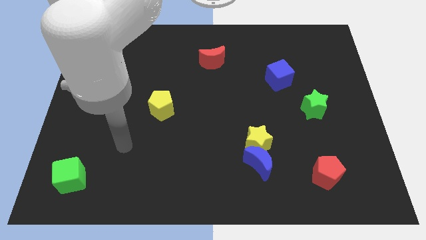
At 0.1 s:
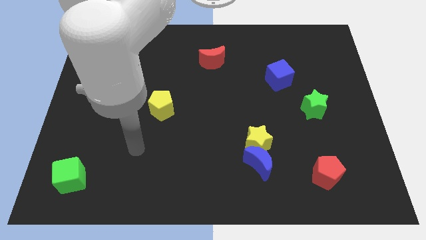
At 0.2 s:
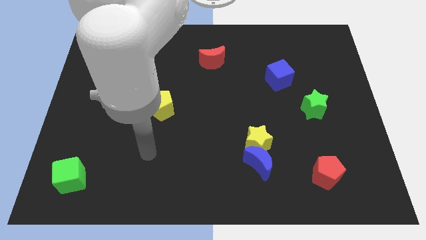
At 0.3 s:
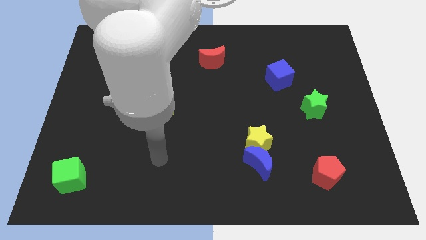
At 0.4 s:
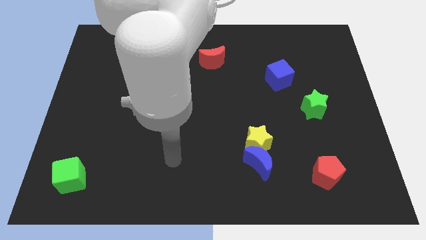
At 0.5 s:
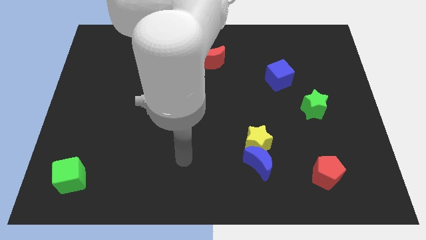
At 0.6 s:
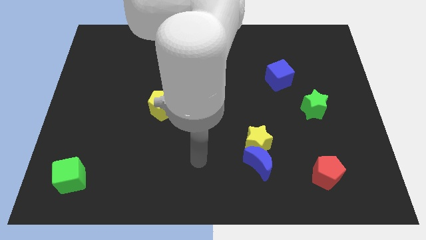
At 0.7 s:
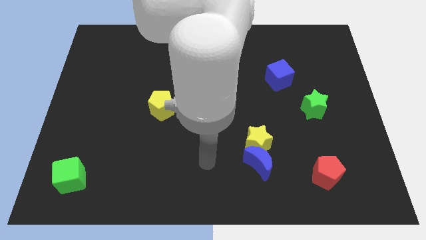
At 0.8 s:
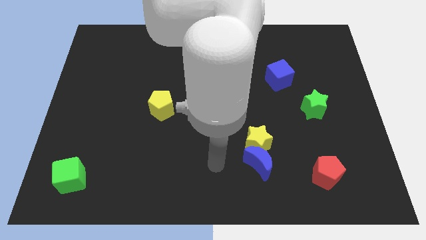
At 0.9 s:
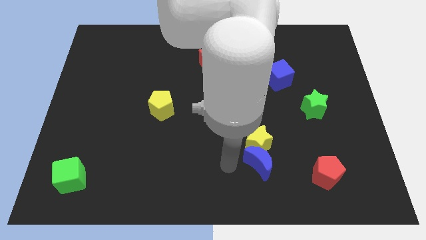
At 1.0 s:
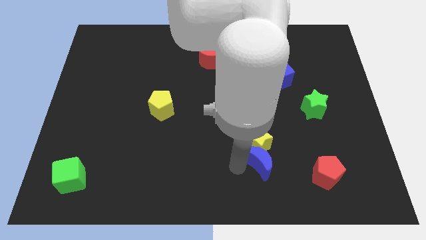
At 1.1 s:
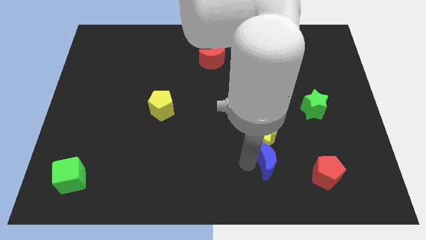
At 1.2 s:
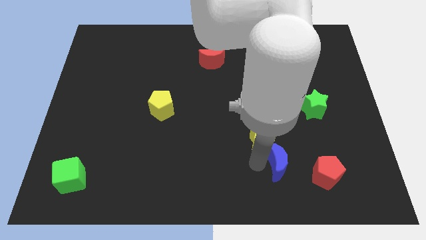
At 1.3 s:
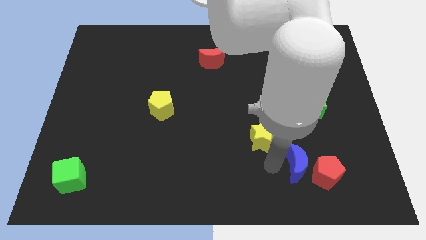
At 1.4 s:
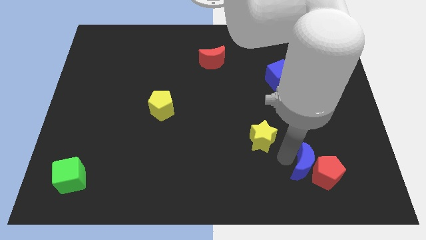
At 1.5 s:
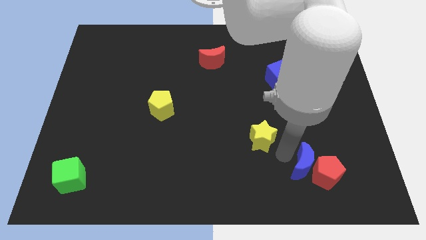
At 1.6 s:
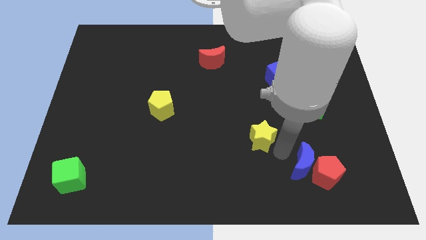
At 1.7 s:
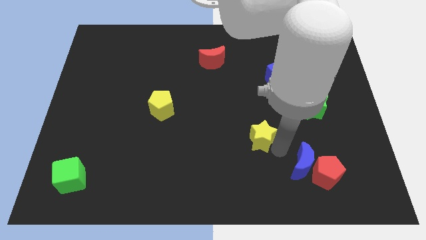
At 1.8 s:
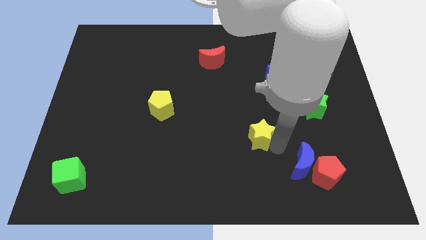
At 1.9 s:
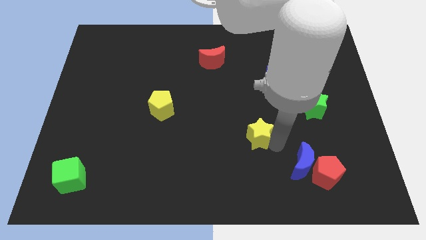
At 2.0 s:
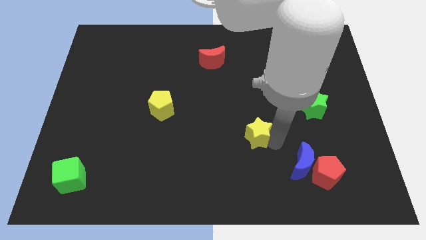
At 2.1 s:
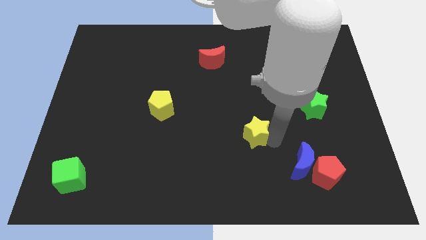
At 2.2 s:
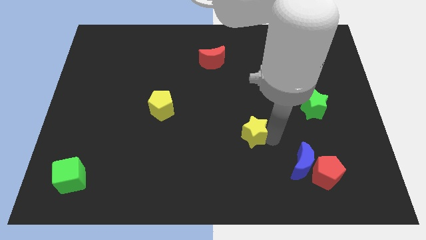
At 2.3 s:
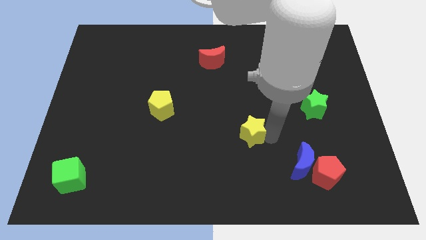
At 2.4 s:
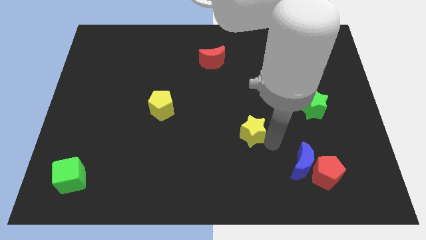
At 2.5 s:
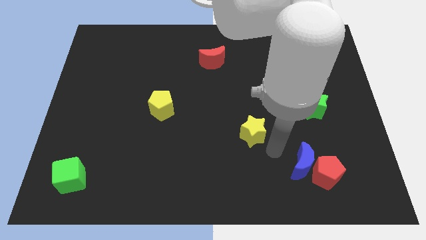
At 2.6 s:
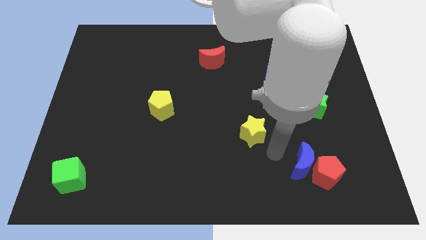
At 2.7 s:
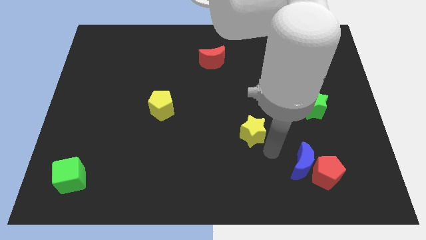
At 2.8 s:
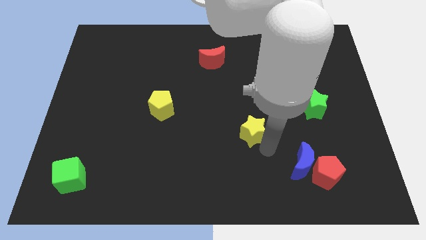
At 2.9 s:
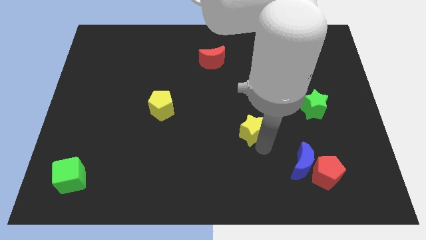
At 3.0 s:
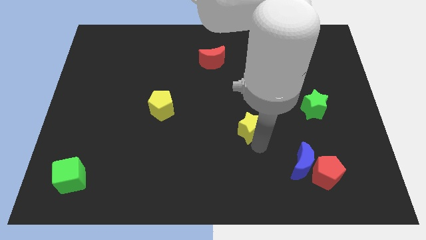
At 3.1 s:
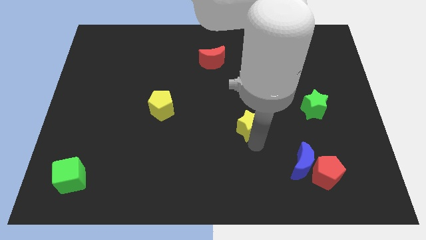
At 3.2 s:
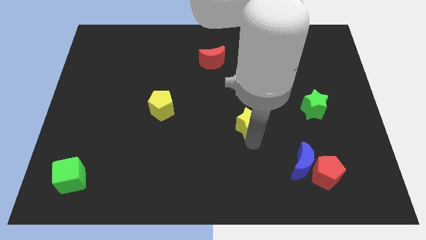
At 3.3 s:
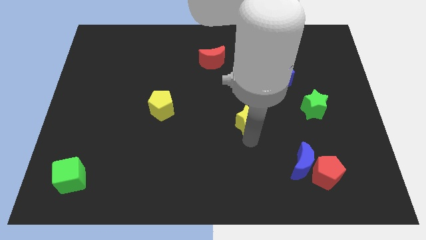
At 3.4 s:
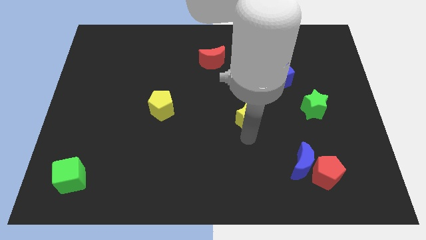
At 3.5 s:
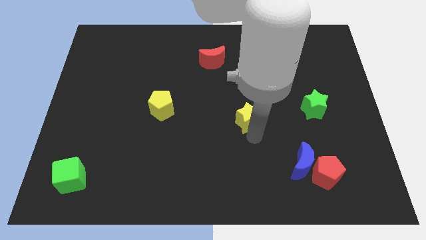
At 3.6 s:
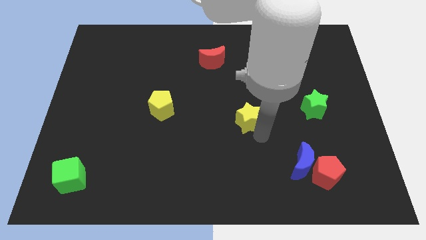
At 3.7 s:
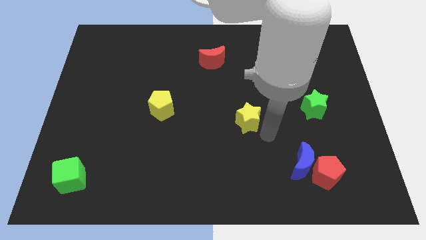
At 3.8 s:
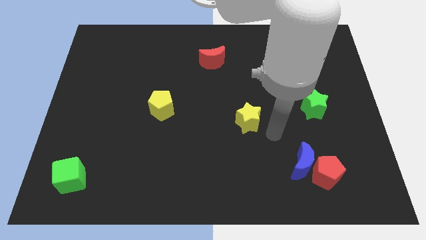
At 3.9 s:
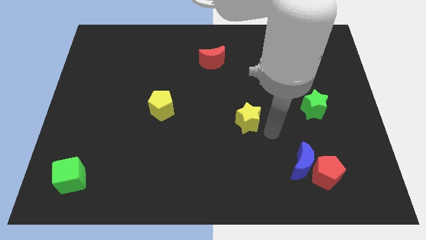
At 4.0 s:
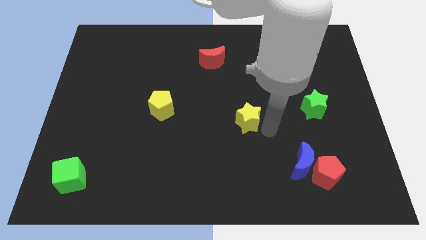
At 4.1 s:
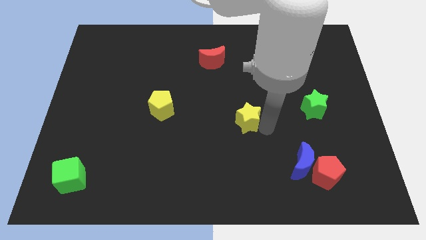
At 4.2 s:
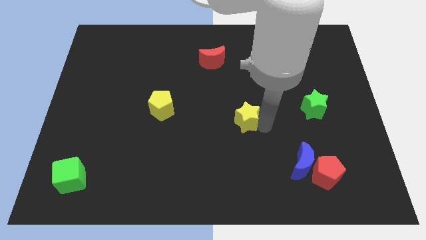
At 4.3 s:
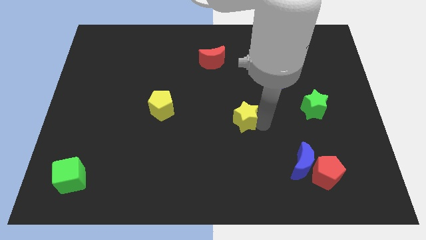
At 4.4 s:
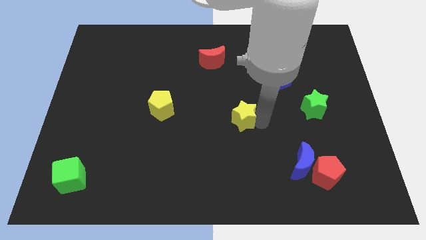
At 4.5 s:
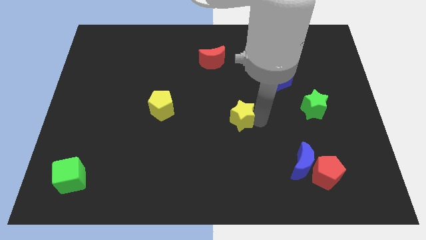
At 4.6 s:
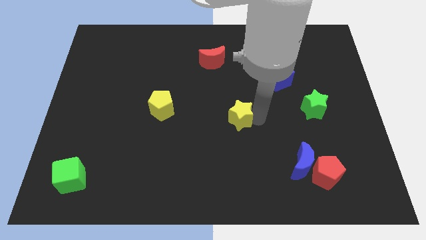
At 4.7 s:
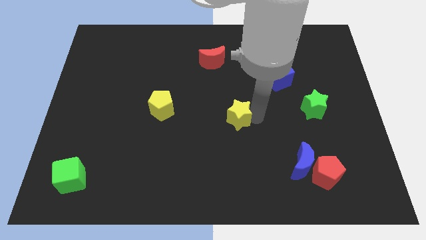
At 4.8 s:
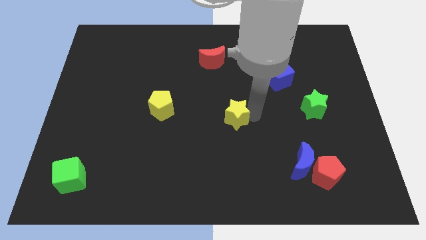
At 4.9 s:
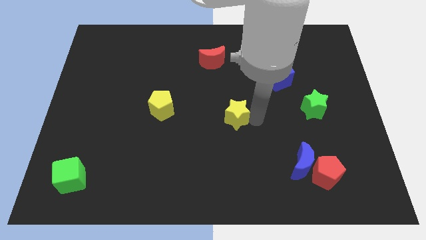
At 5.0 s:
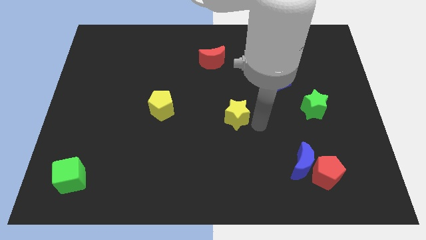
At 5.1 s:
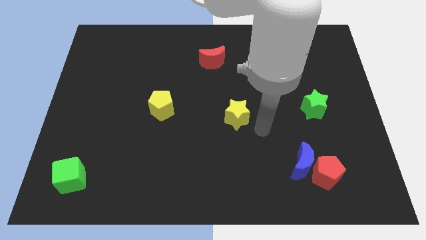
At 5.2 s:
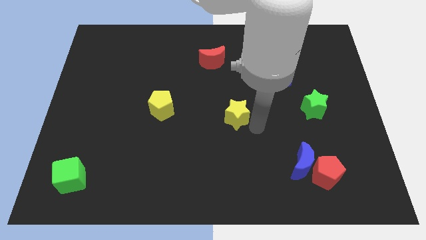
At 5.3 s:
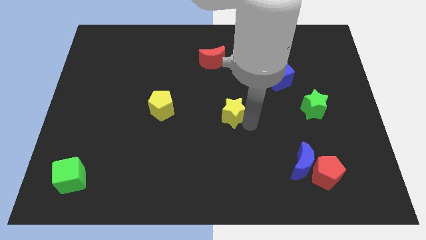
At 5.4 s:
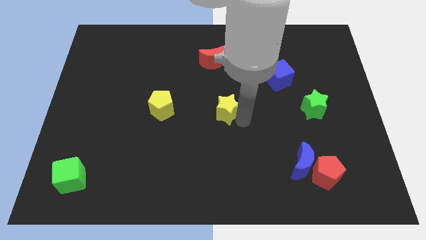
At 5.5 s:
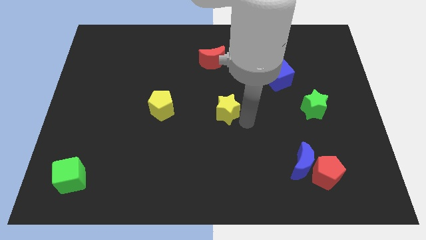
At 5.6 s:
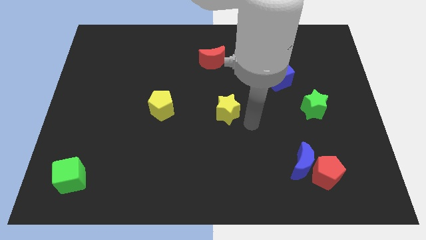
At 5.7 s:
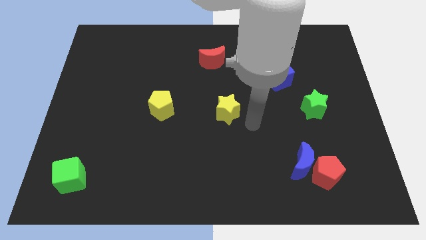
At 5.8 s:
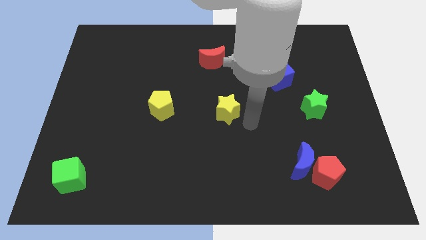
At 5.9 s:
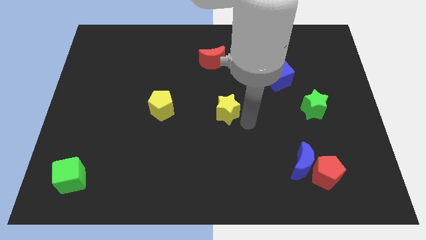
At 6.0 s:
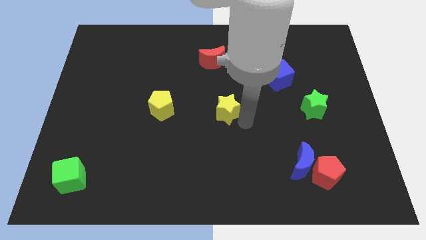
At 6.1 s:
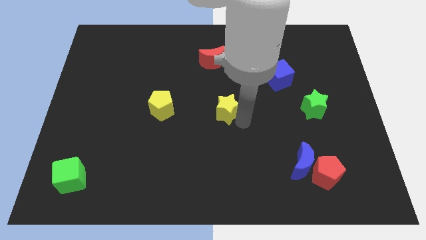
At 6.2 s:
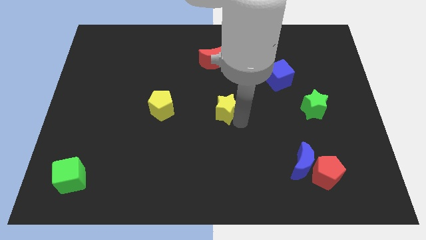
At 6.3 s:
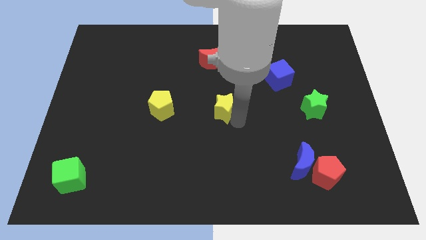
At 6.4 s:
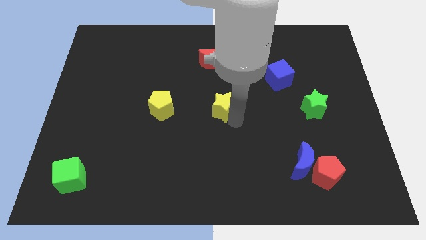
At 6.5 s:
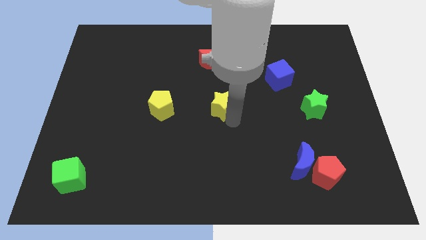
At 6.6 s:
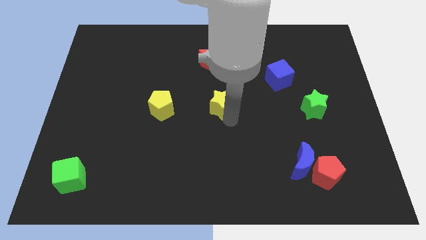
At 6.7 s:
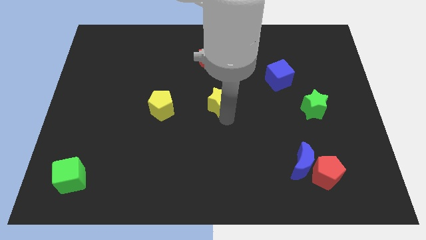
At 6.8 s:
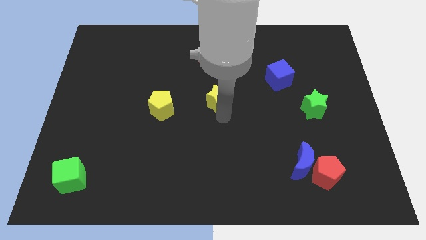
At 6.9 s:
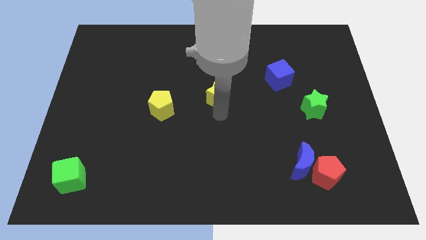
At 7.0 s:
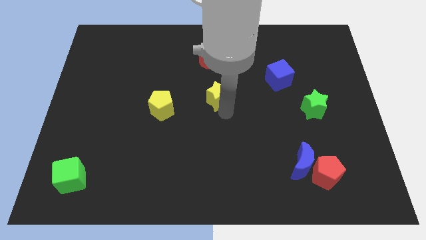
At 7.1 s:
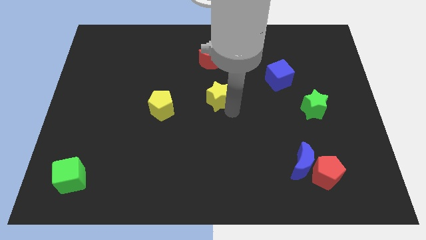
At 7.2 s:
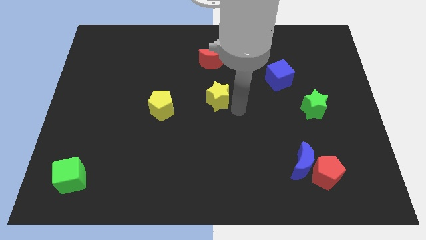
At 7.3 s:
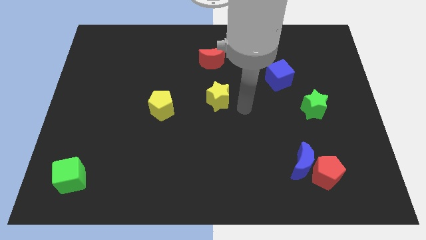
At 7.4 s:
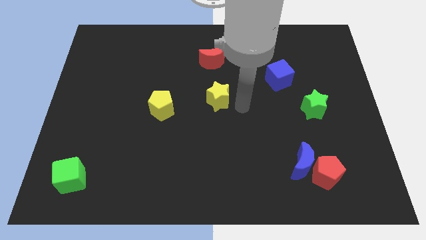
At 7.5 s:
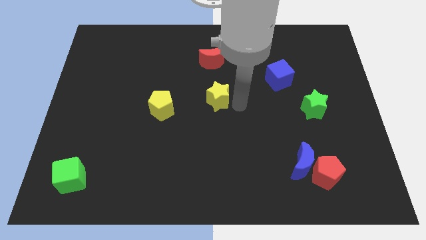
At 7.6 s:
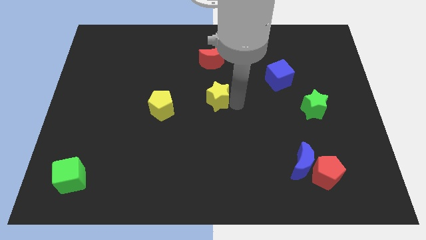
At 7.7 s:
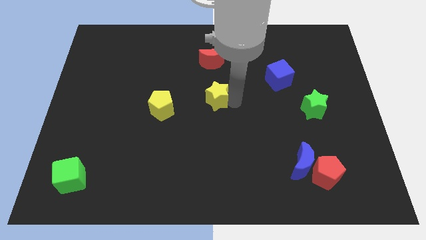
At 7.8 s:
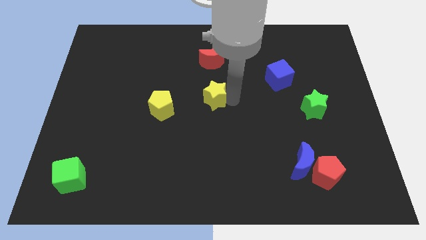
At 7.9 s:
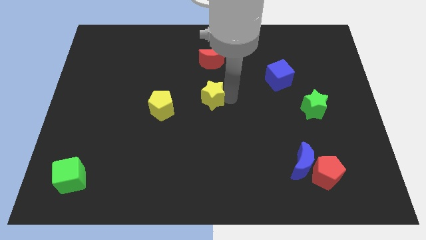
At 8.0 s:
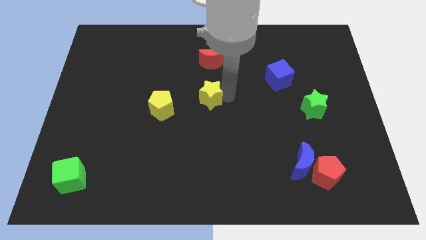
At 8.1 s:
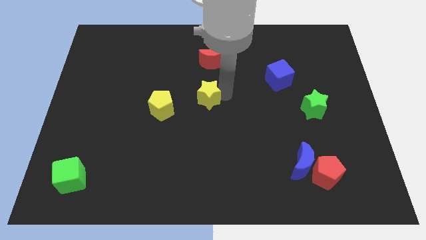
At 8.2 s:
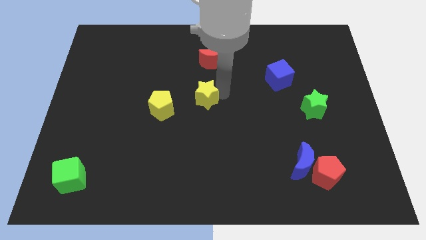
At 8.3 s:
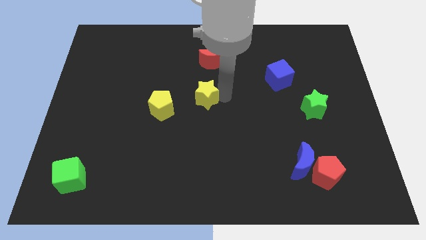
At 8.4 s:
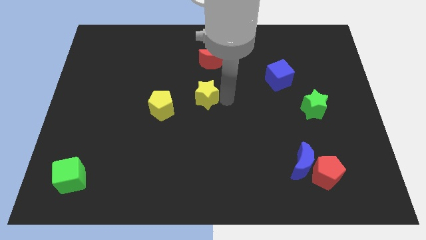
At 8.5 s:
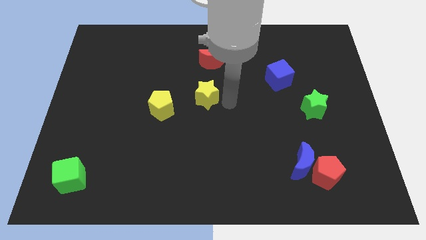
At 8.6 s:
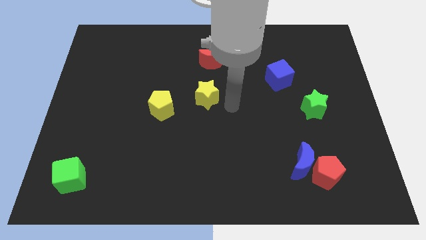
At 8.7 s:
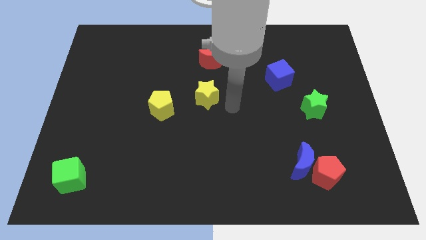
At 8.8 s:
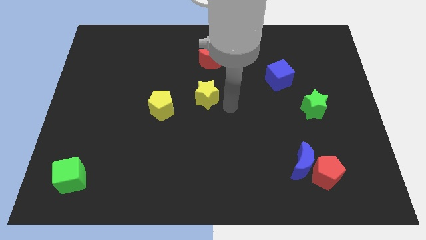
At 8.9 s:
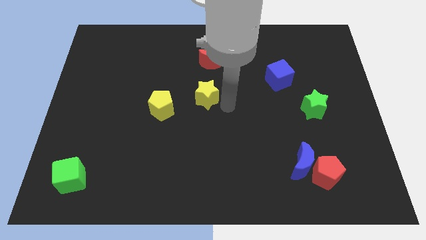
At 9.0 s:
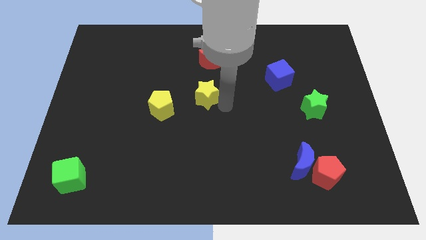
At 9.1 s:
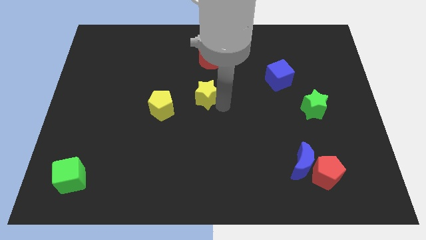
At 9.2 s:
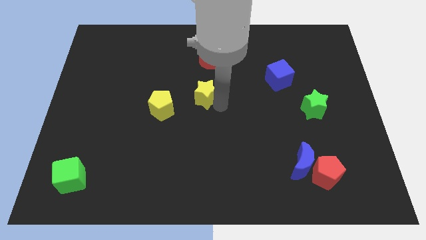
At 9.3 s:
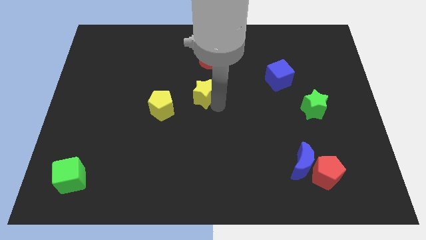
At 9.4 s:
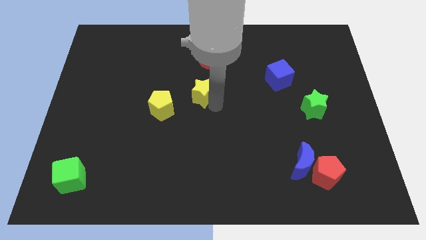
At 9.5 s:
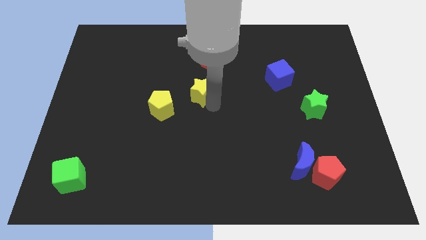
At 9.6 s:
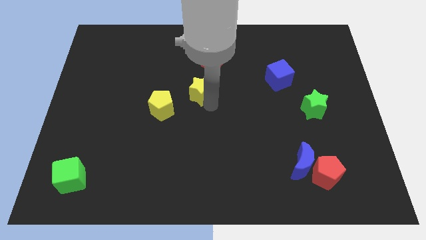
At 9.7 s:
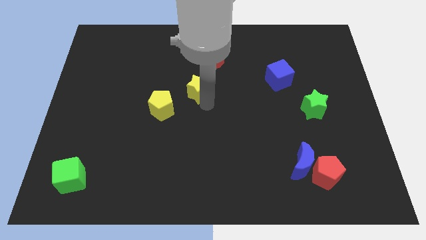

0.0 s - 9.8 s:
move the yellow star diagonally upwards and to the left
